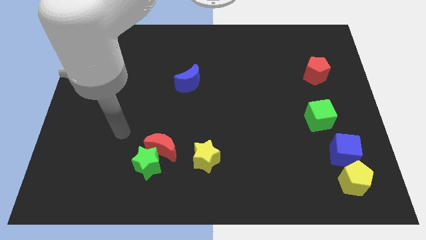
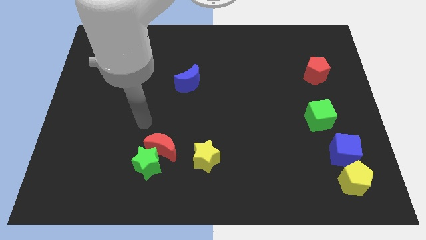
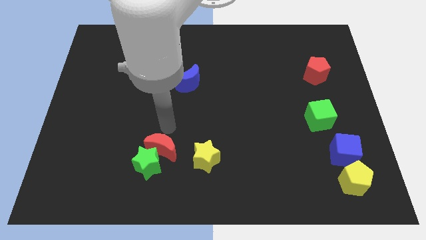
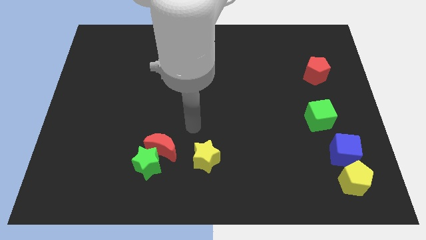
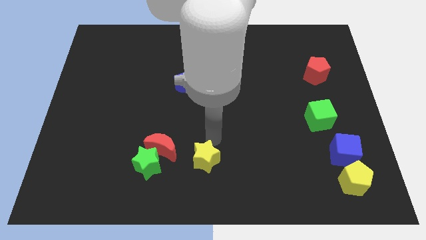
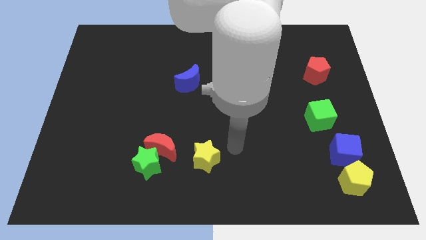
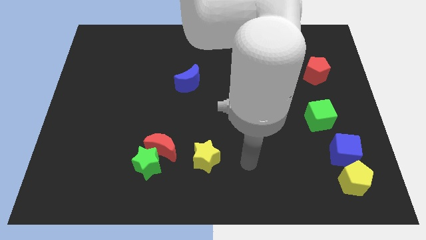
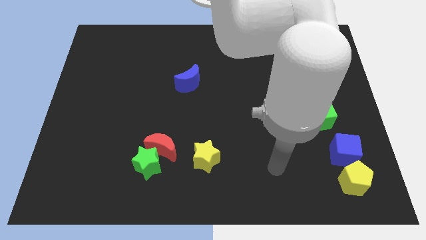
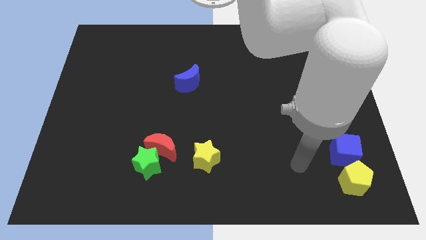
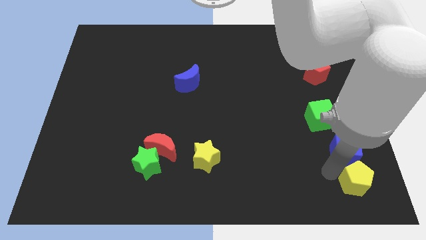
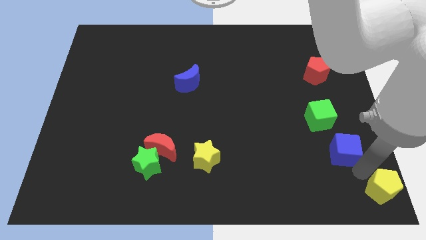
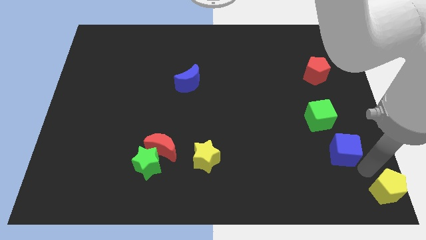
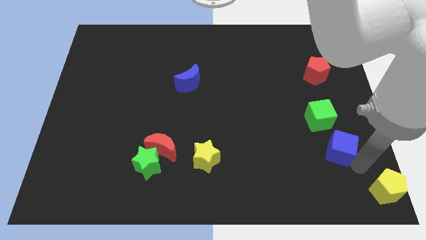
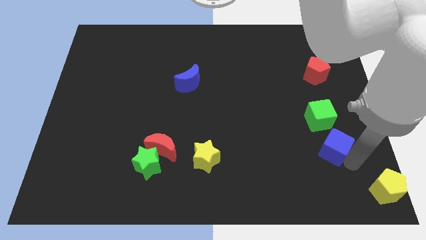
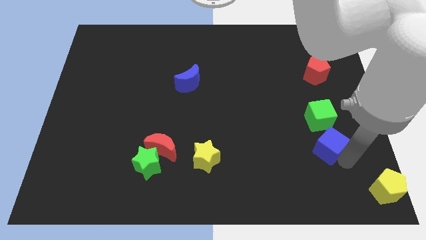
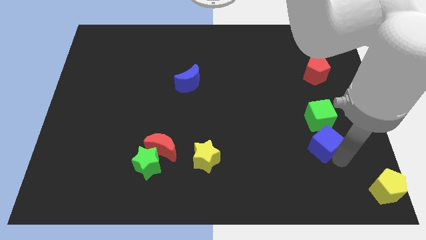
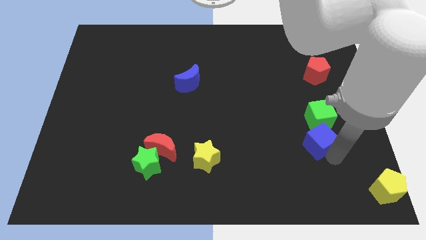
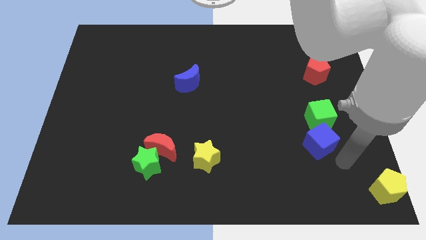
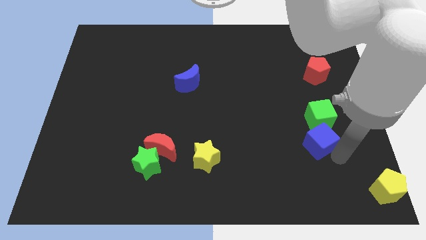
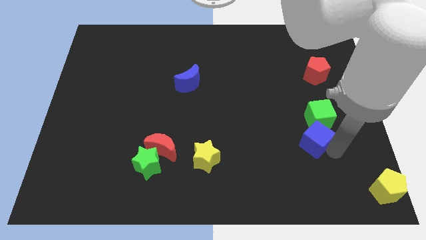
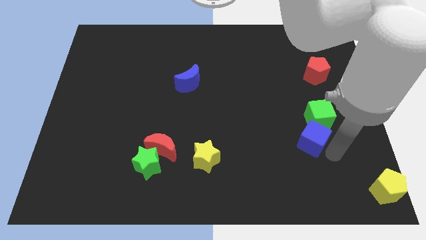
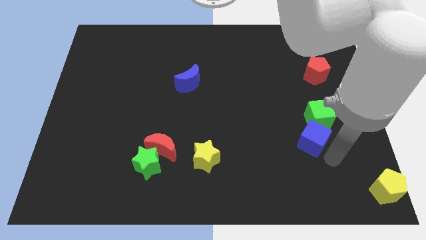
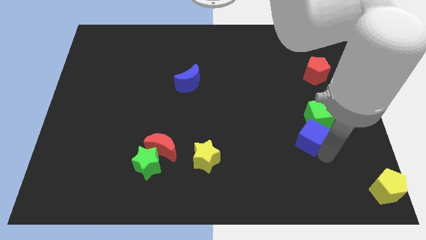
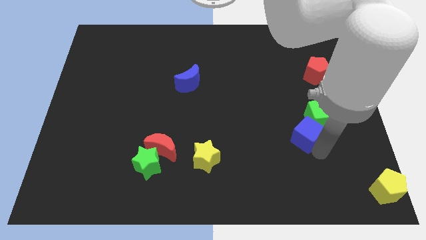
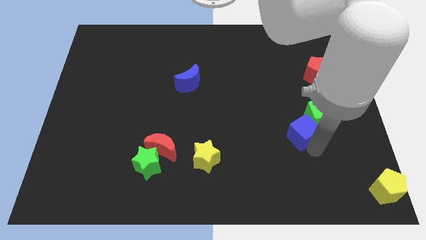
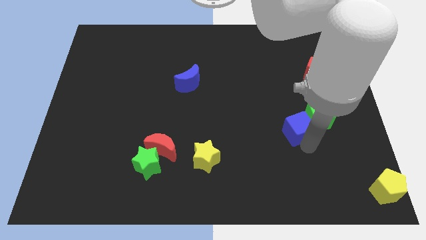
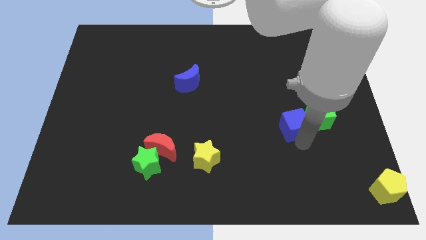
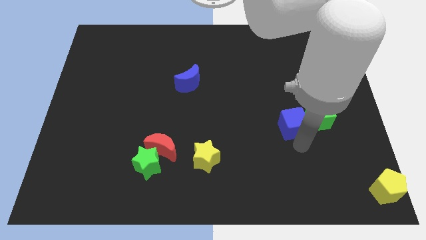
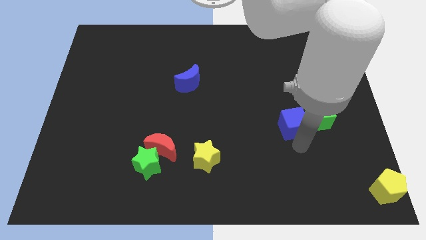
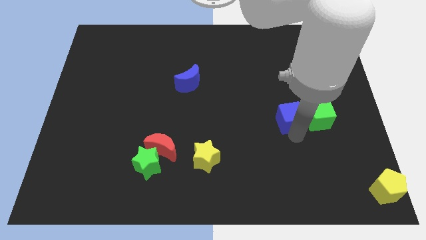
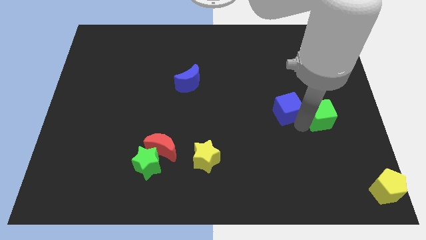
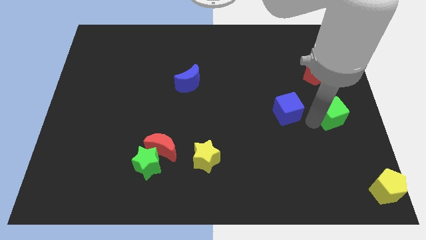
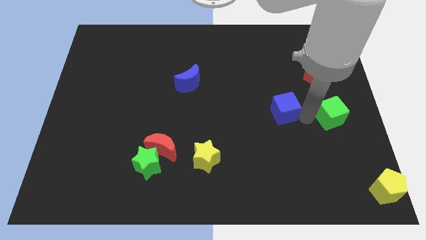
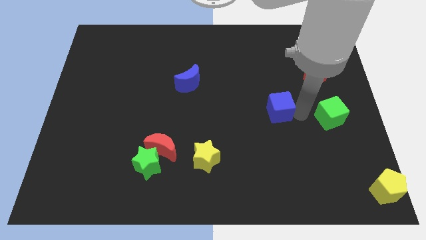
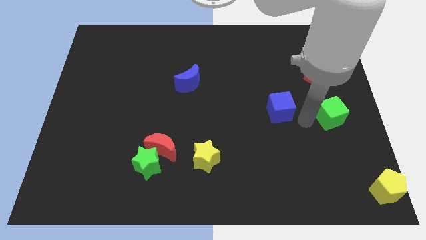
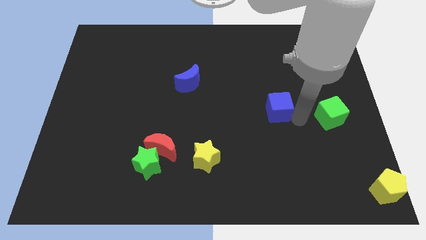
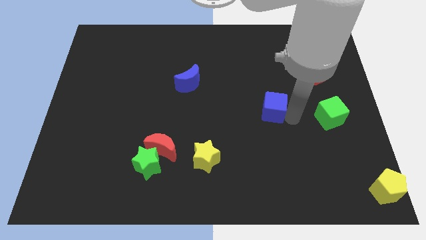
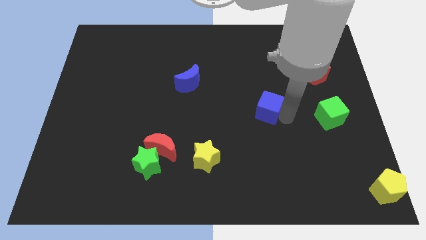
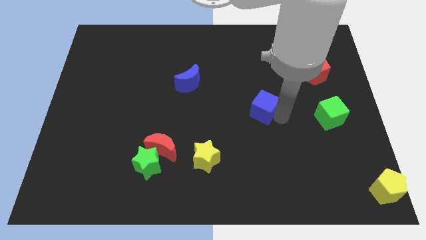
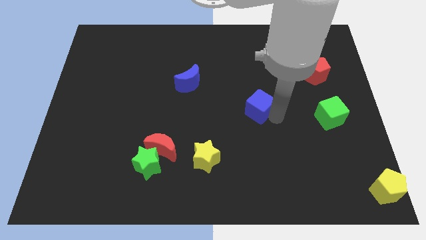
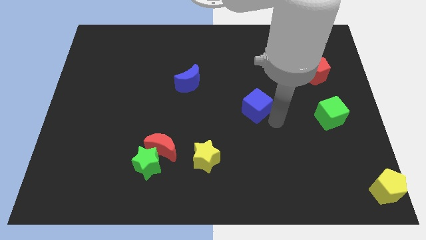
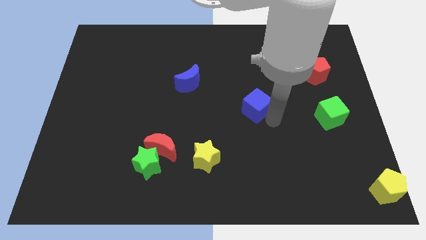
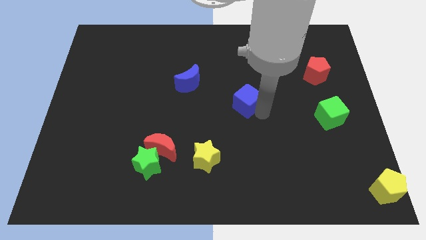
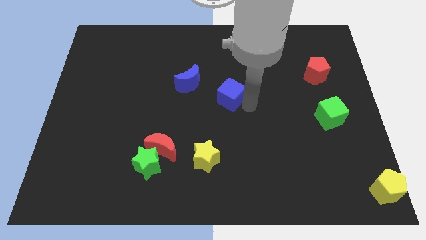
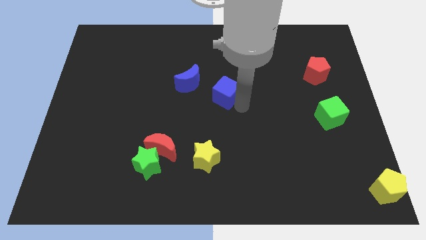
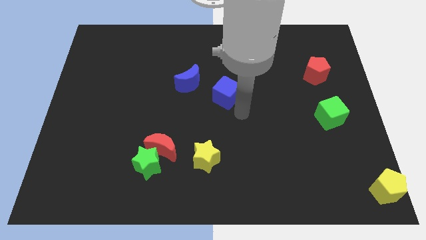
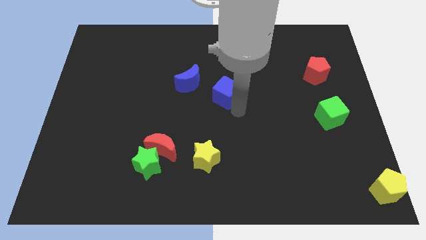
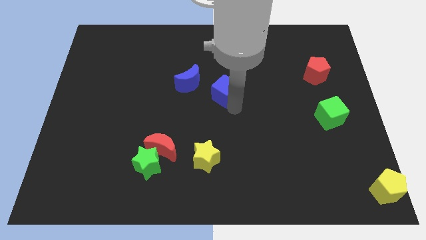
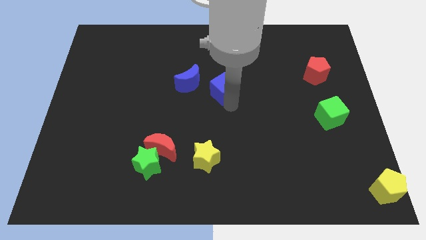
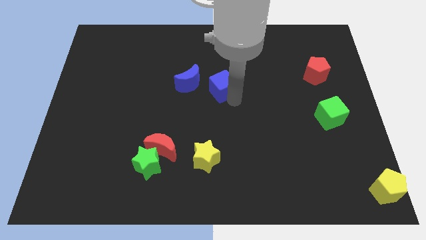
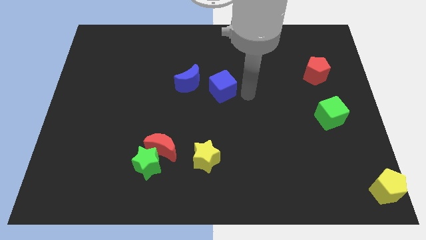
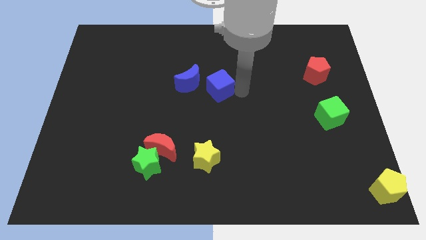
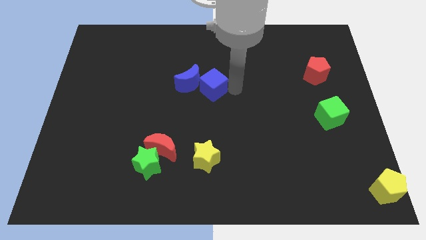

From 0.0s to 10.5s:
put the blue cube towards the blue moon

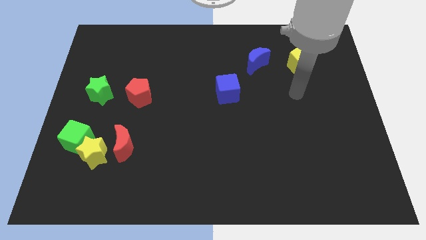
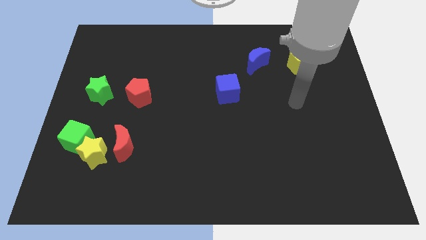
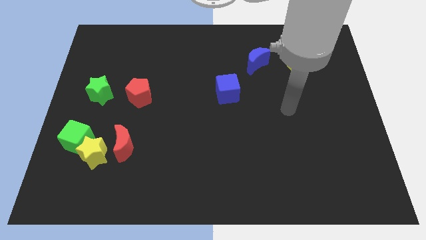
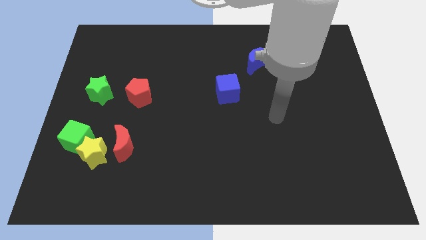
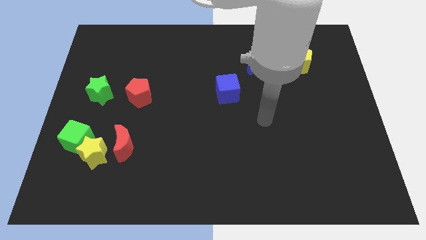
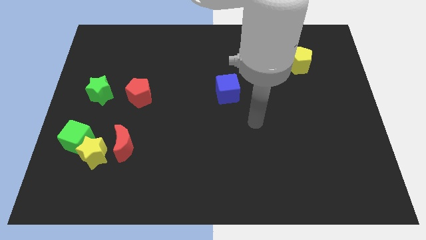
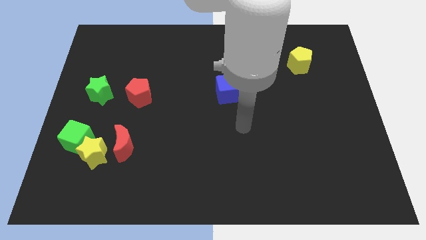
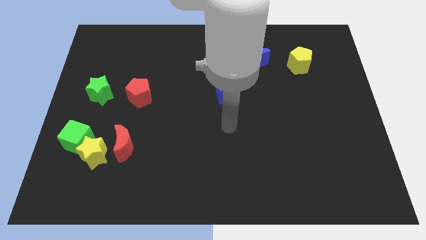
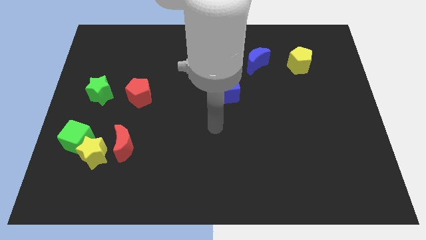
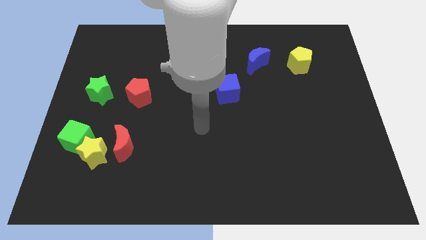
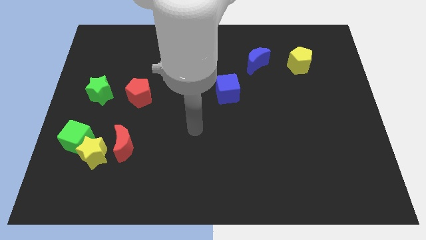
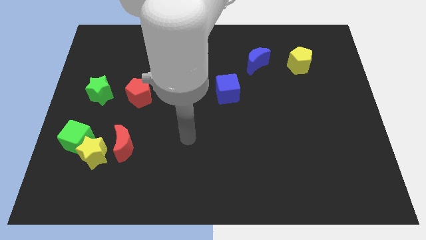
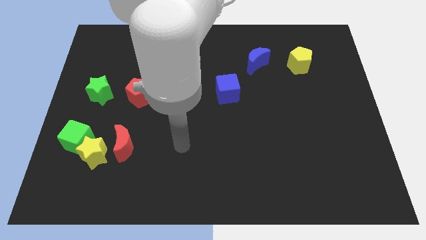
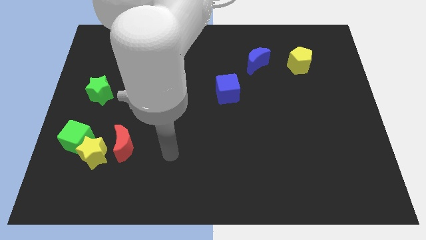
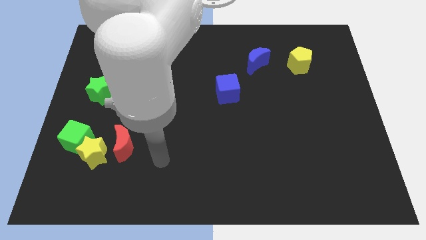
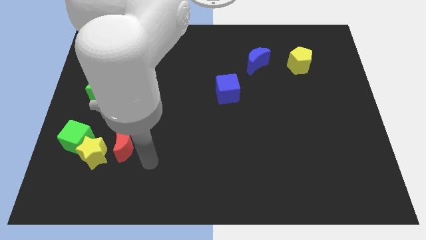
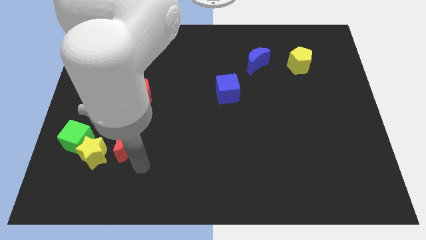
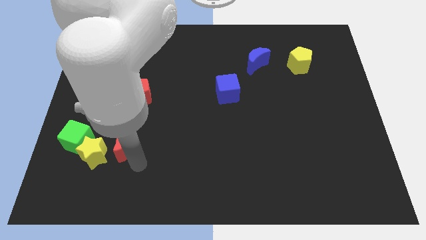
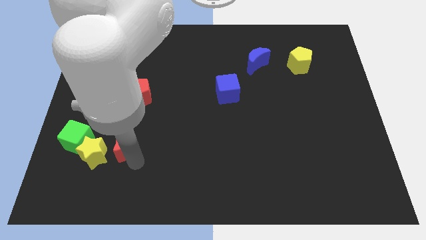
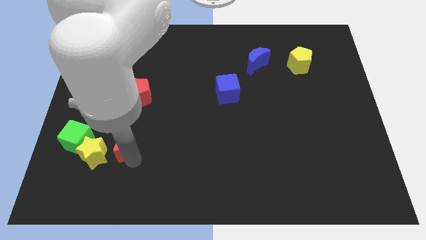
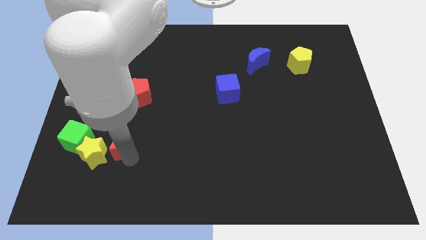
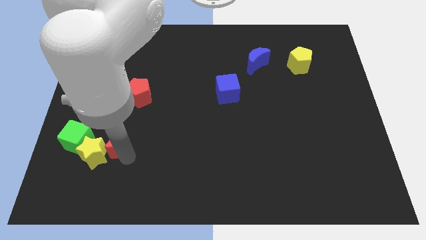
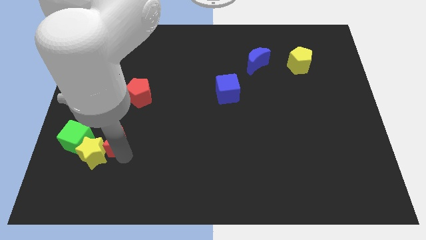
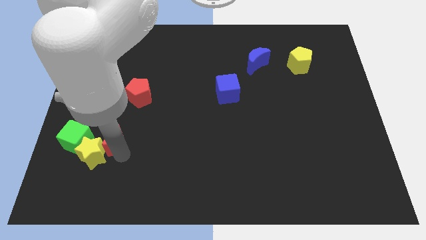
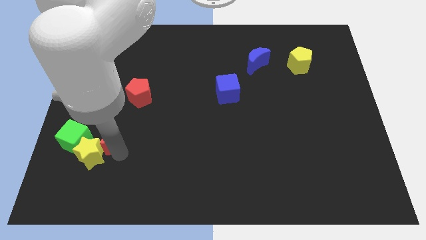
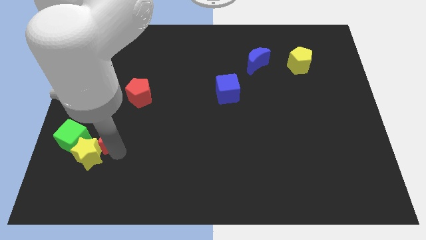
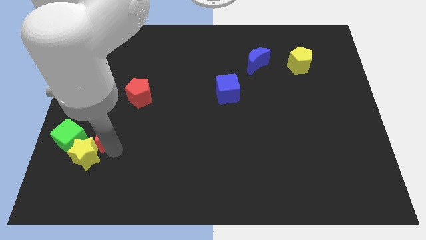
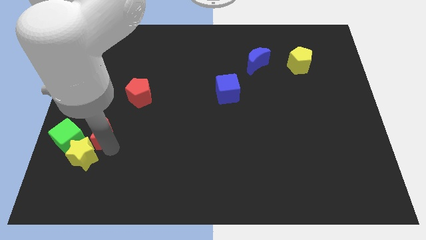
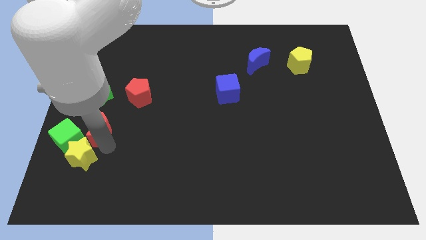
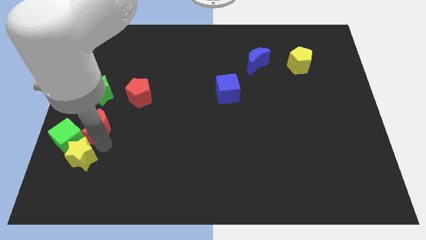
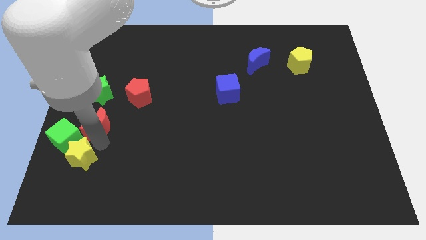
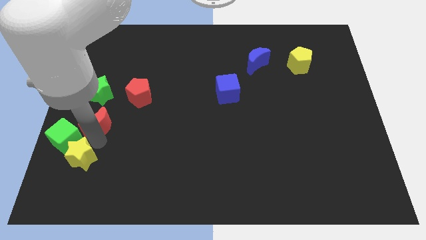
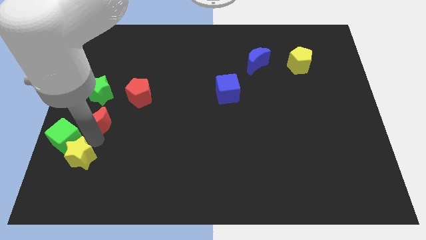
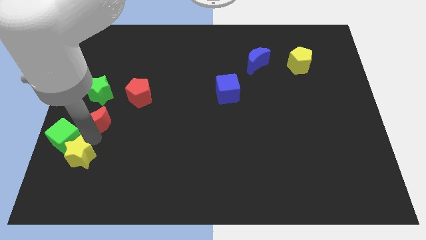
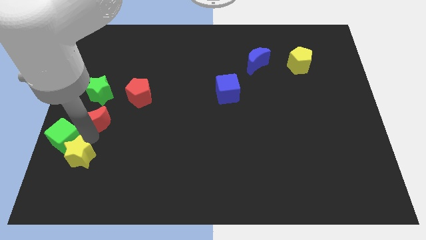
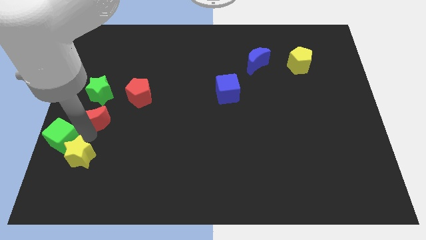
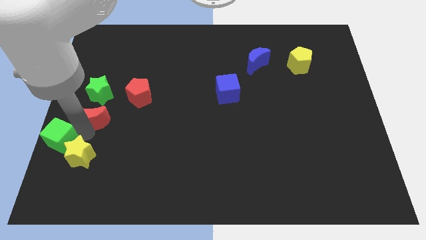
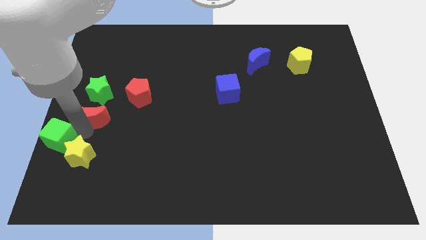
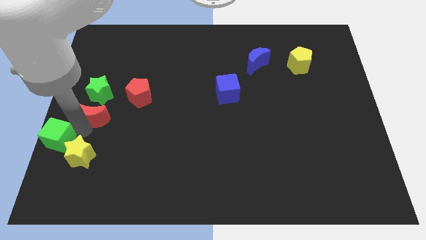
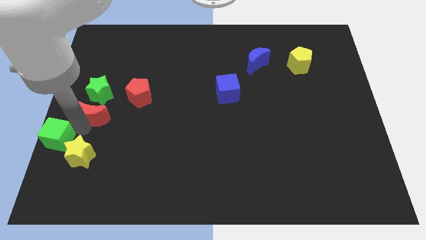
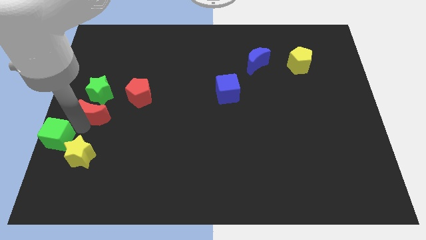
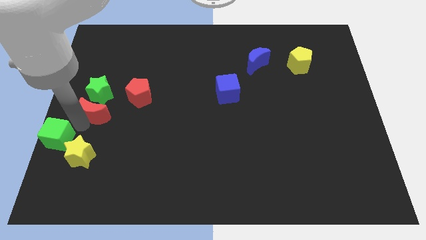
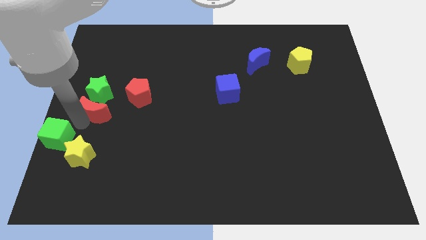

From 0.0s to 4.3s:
put the red moon close to the green star
